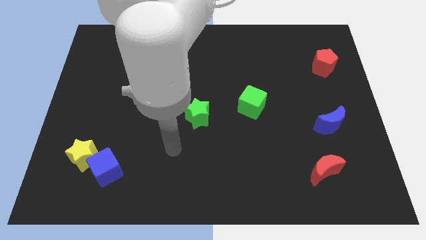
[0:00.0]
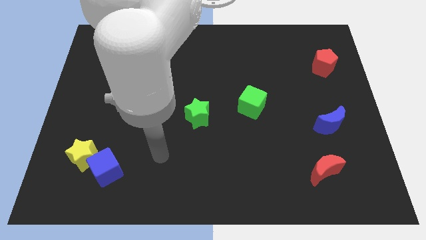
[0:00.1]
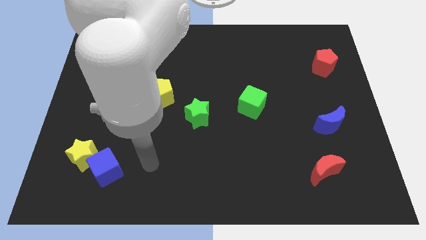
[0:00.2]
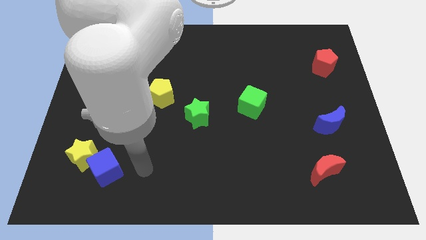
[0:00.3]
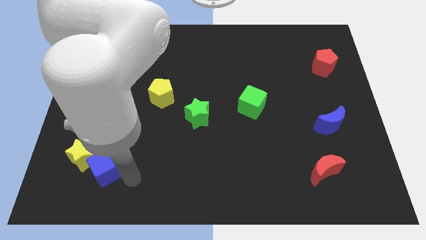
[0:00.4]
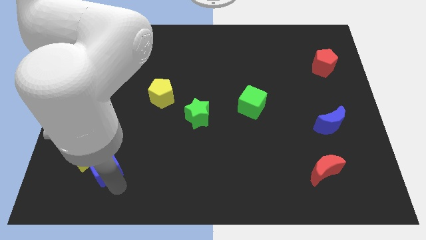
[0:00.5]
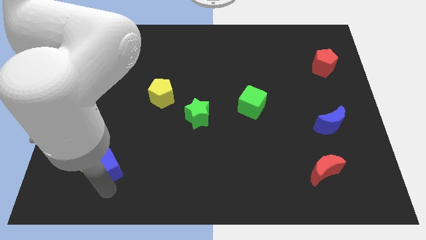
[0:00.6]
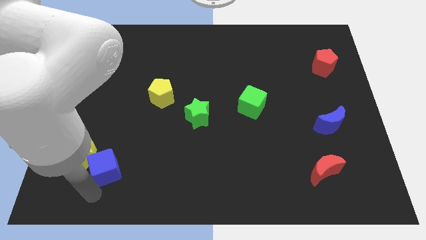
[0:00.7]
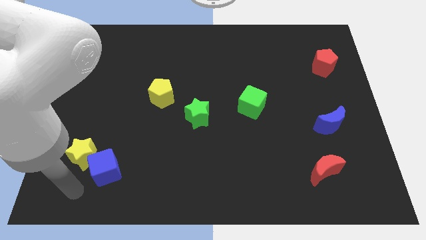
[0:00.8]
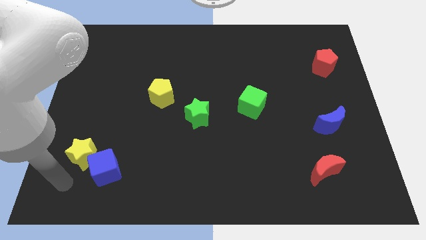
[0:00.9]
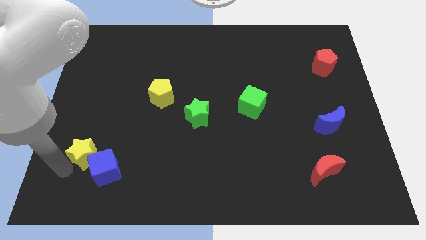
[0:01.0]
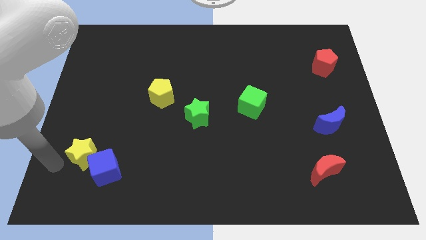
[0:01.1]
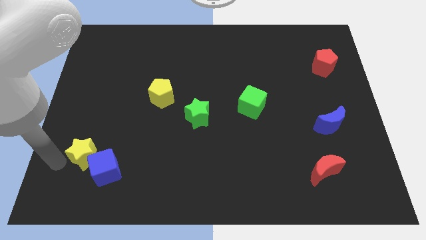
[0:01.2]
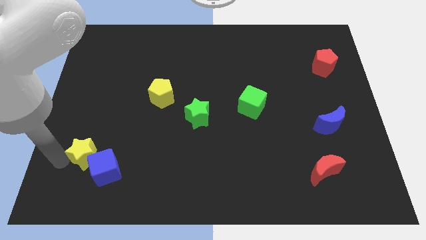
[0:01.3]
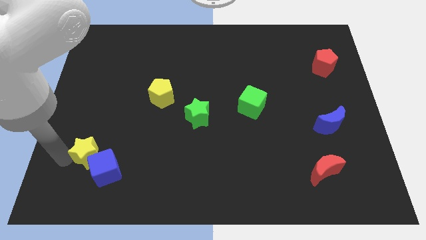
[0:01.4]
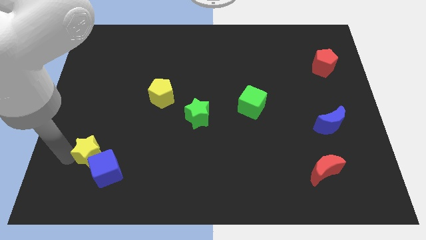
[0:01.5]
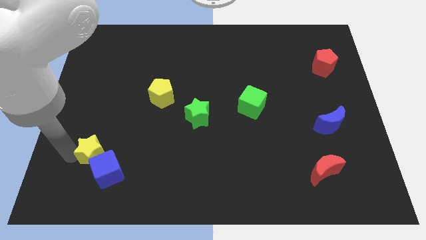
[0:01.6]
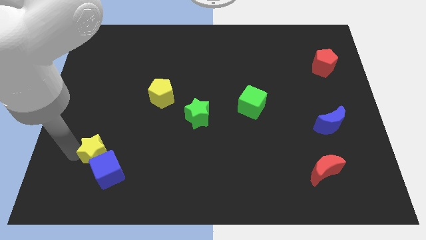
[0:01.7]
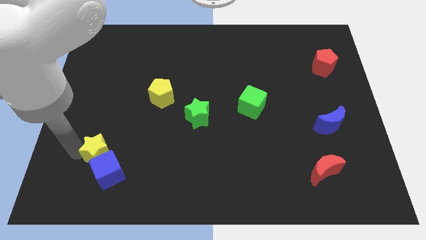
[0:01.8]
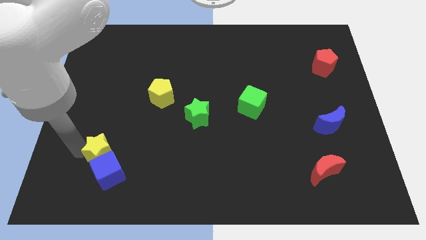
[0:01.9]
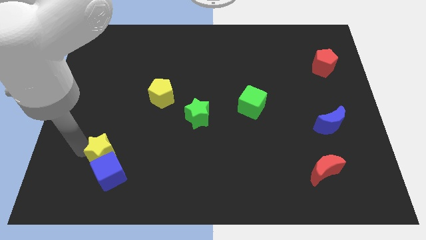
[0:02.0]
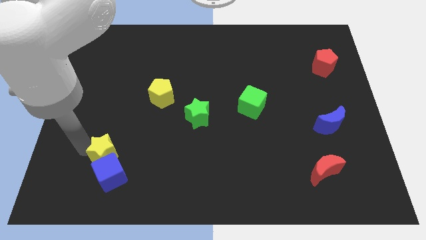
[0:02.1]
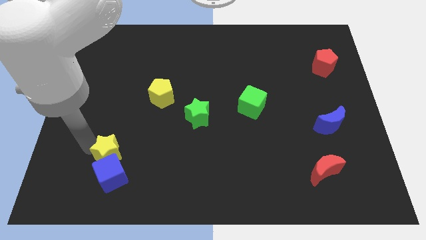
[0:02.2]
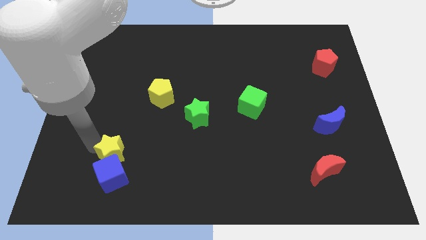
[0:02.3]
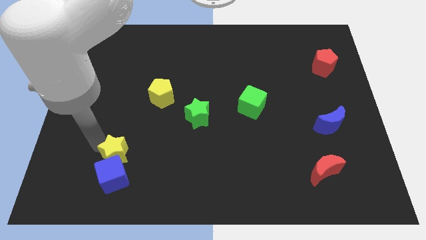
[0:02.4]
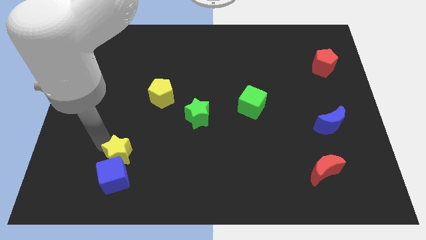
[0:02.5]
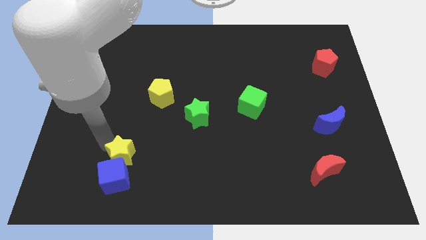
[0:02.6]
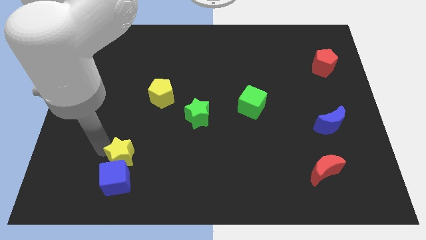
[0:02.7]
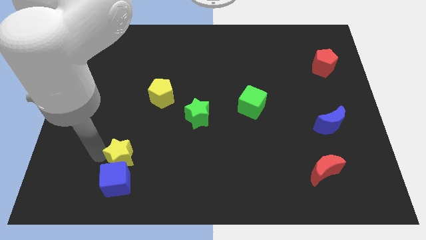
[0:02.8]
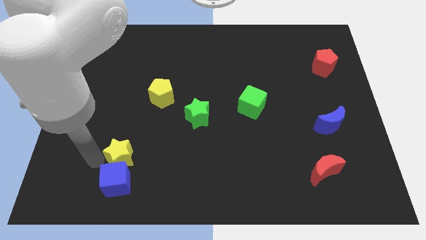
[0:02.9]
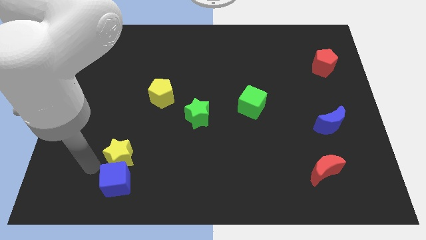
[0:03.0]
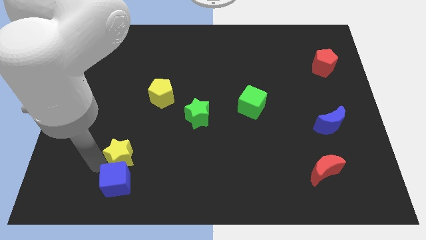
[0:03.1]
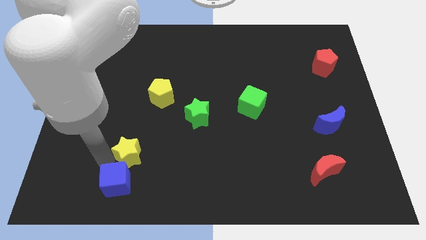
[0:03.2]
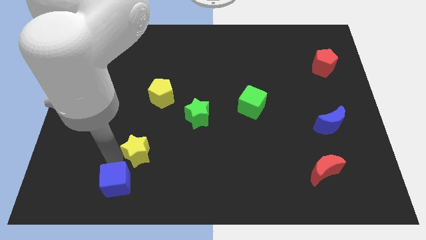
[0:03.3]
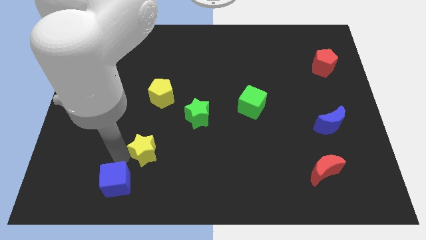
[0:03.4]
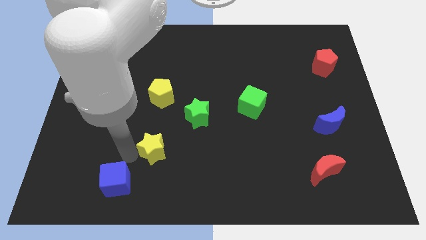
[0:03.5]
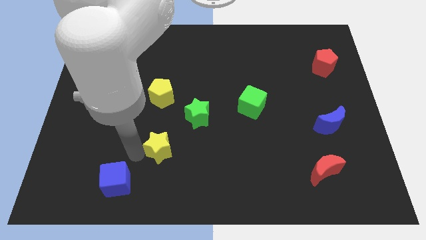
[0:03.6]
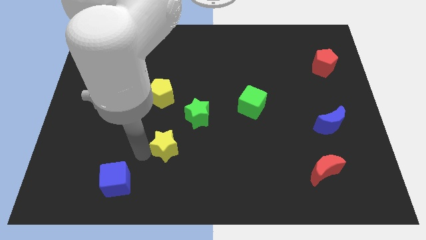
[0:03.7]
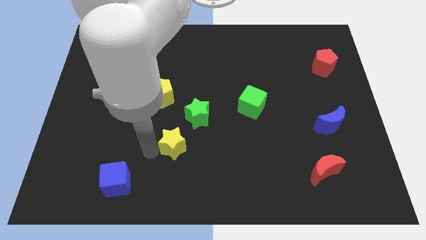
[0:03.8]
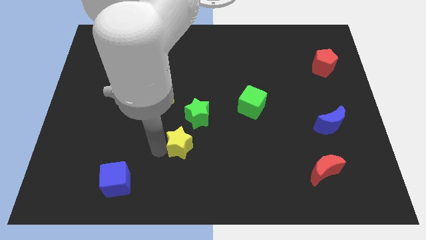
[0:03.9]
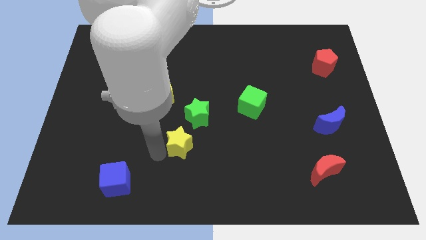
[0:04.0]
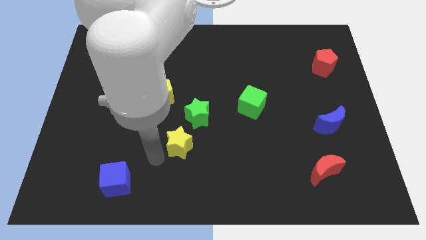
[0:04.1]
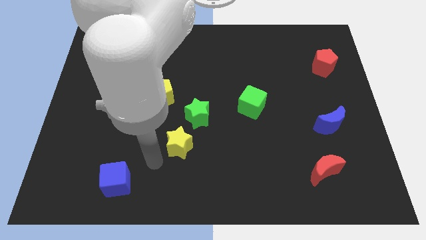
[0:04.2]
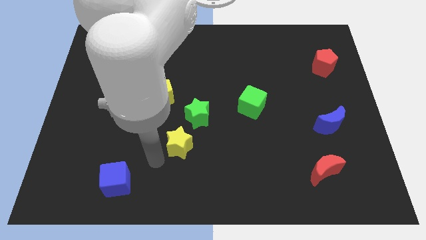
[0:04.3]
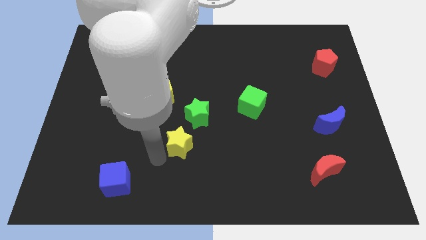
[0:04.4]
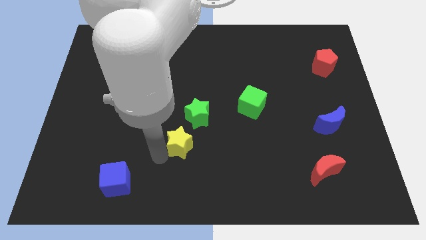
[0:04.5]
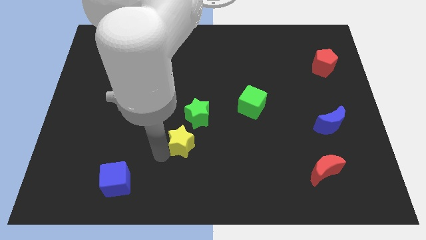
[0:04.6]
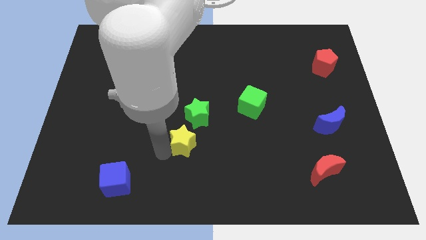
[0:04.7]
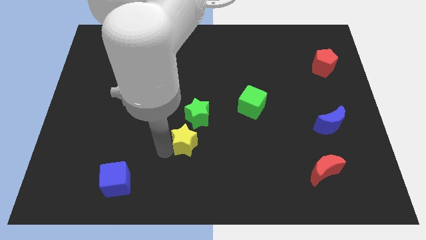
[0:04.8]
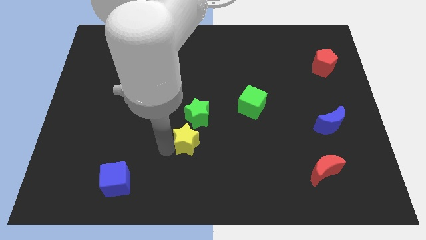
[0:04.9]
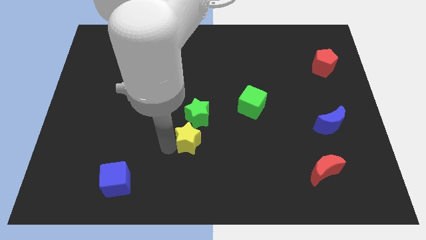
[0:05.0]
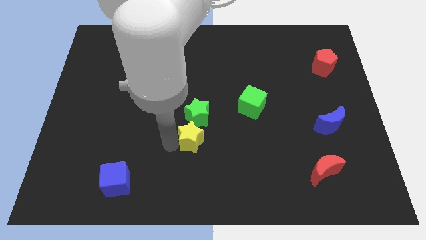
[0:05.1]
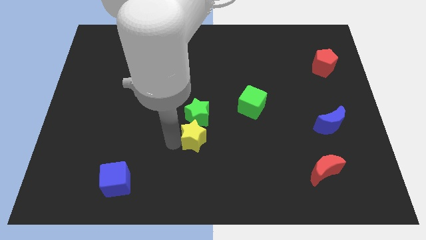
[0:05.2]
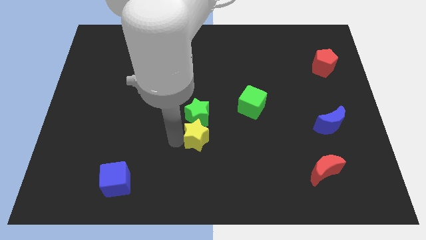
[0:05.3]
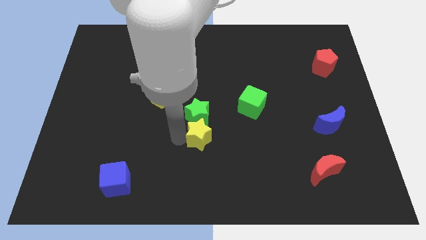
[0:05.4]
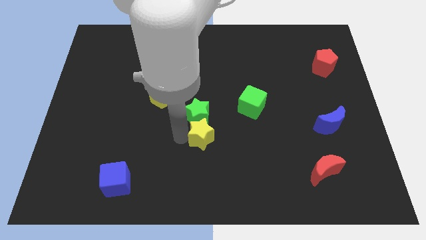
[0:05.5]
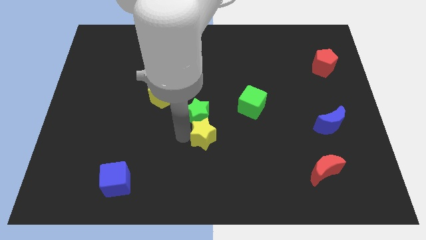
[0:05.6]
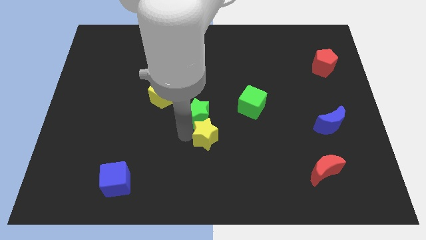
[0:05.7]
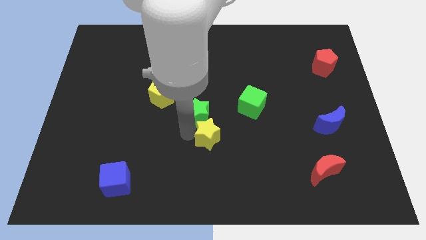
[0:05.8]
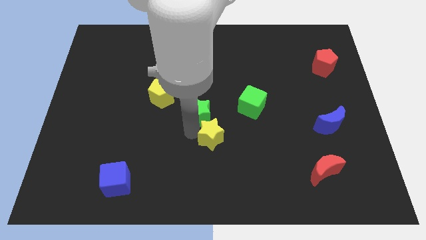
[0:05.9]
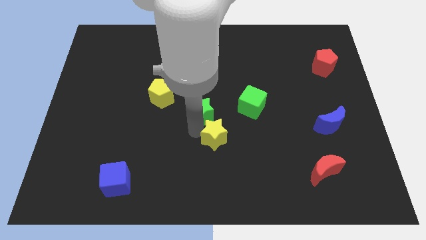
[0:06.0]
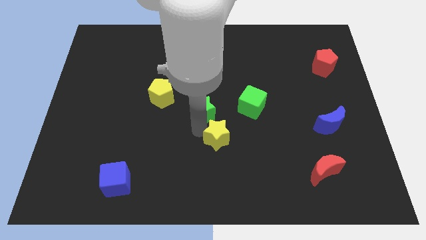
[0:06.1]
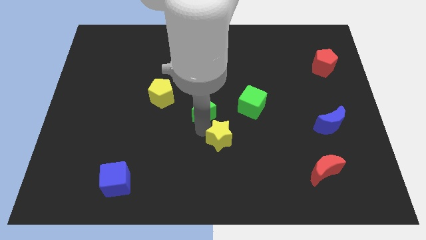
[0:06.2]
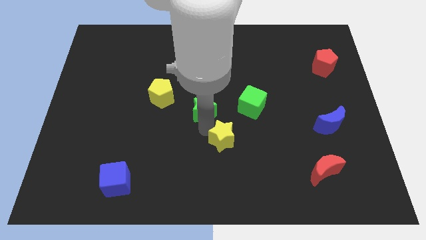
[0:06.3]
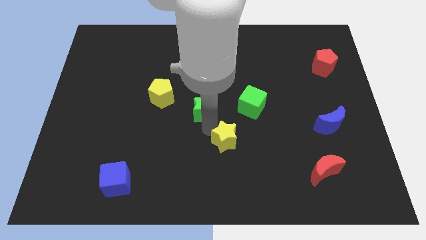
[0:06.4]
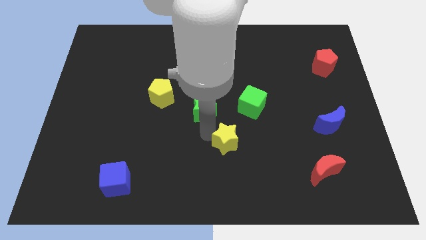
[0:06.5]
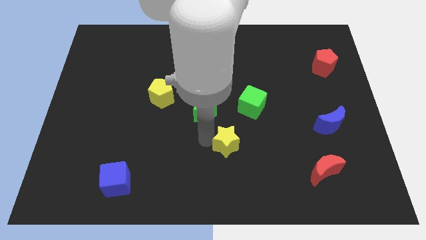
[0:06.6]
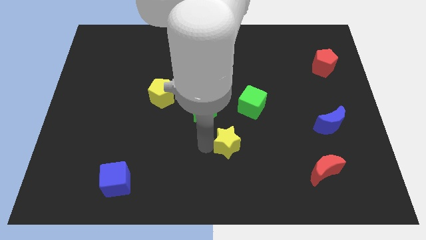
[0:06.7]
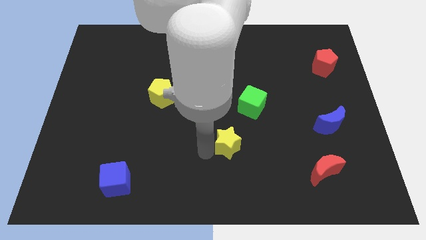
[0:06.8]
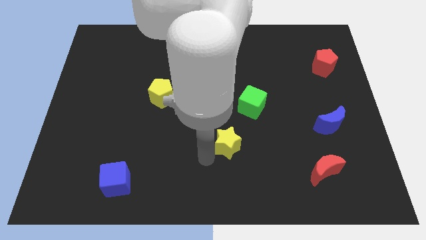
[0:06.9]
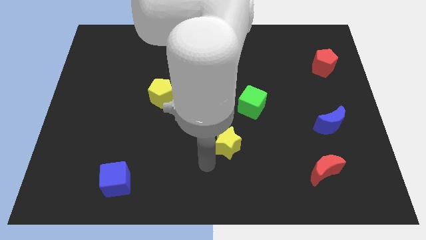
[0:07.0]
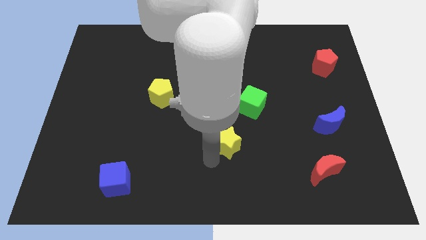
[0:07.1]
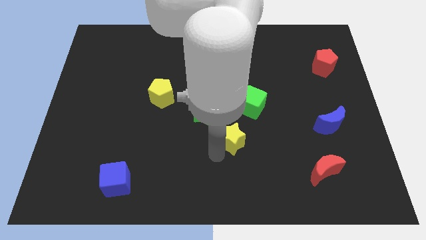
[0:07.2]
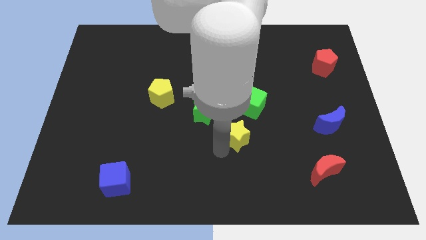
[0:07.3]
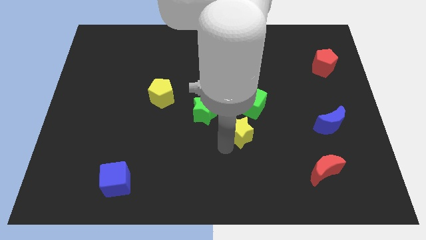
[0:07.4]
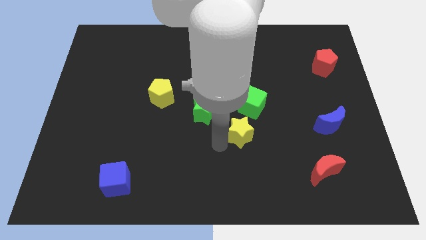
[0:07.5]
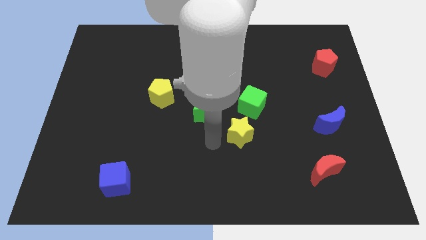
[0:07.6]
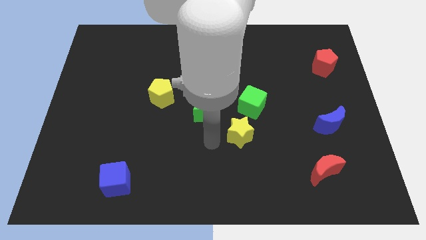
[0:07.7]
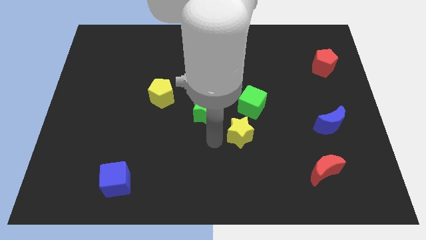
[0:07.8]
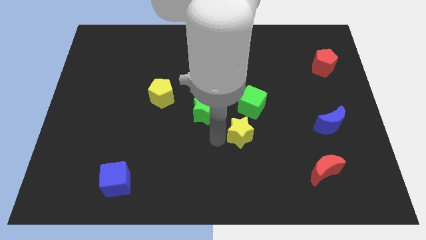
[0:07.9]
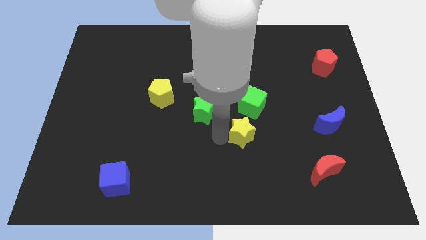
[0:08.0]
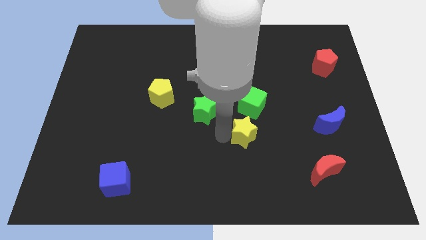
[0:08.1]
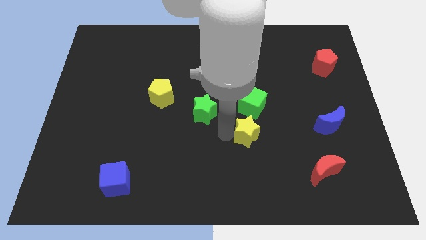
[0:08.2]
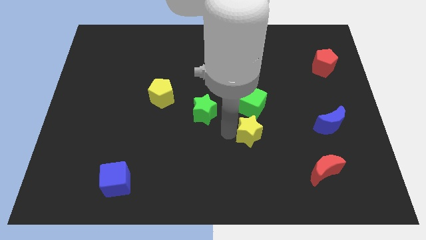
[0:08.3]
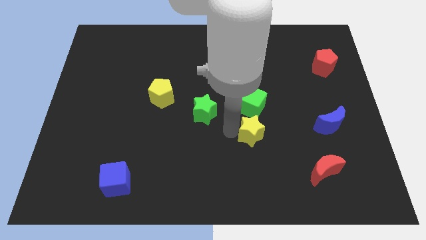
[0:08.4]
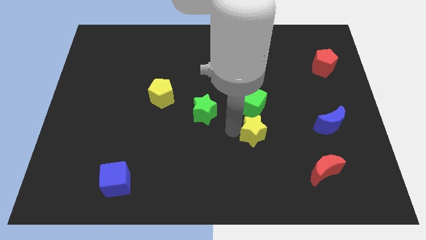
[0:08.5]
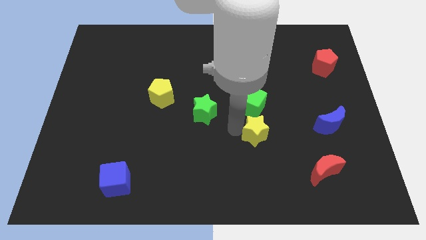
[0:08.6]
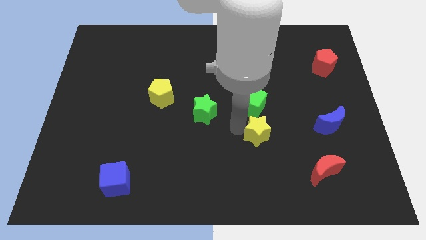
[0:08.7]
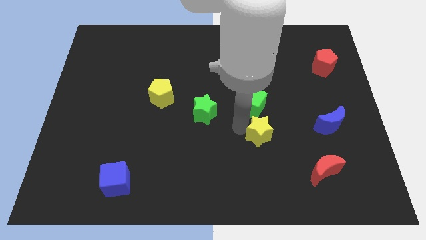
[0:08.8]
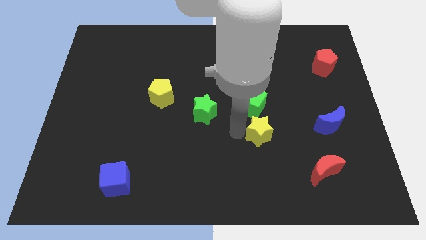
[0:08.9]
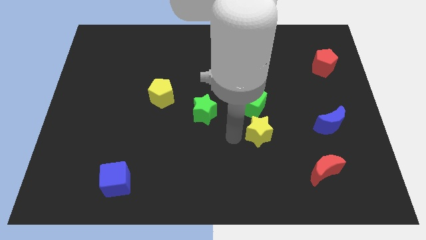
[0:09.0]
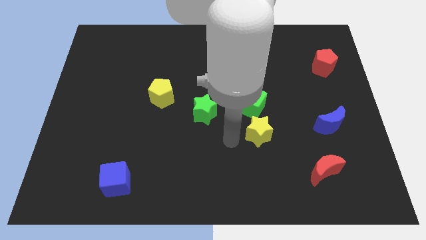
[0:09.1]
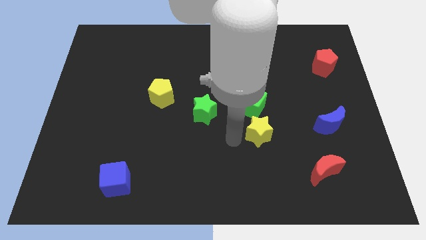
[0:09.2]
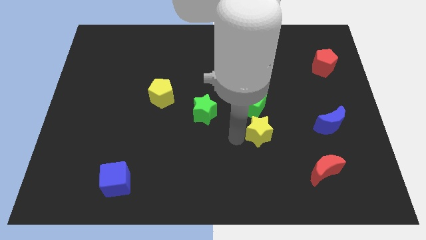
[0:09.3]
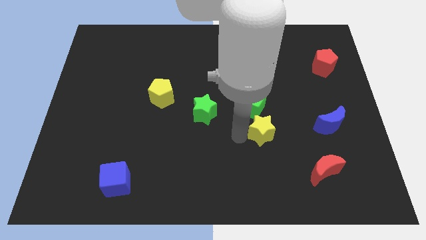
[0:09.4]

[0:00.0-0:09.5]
put the yellow star to the left of the blue moon
